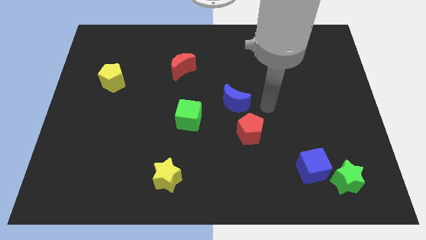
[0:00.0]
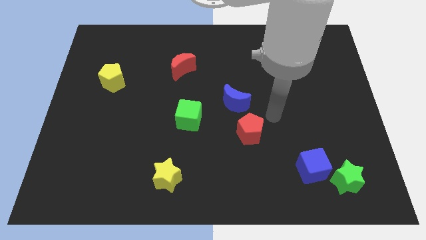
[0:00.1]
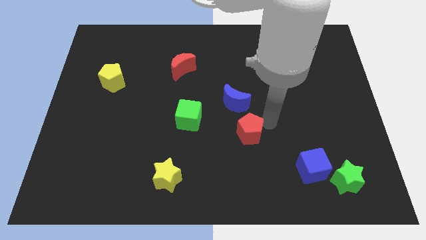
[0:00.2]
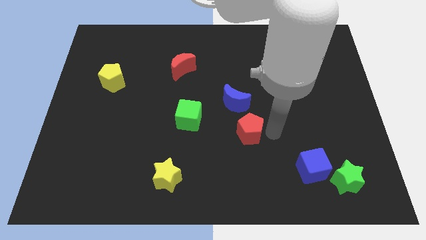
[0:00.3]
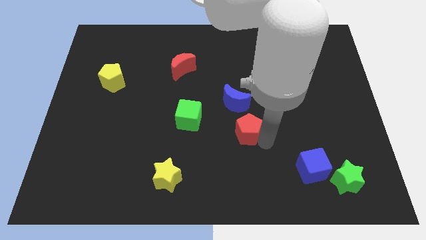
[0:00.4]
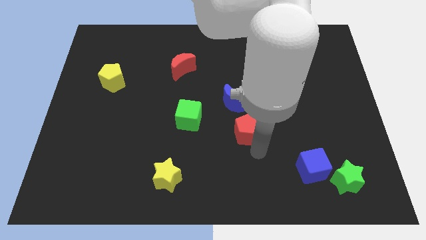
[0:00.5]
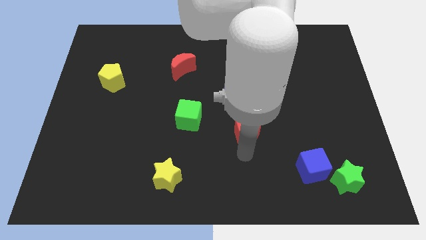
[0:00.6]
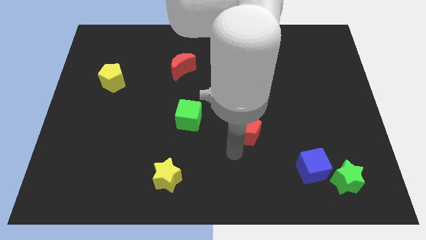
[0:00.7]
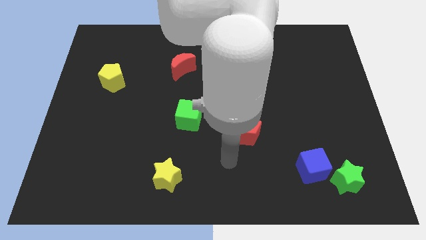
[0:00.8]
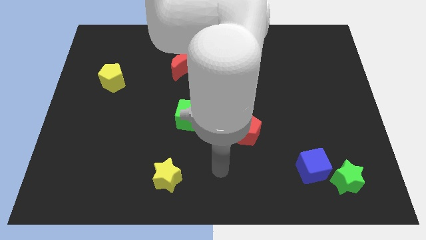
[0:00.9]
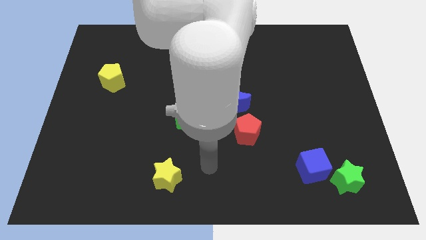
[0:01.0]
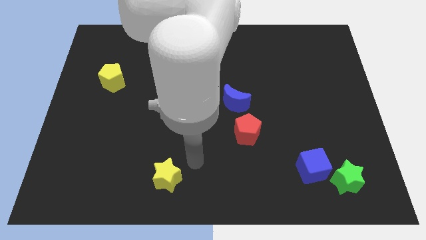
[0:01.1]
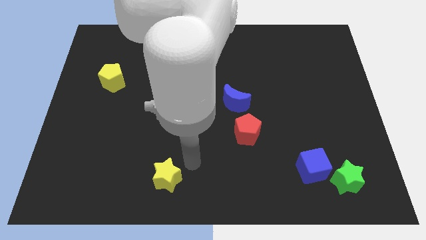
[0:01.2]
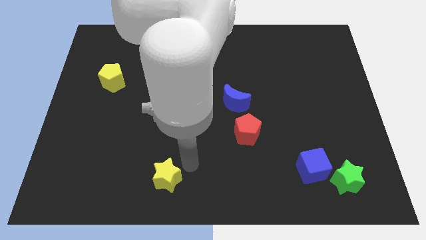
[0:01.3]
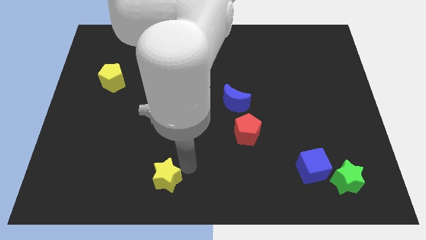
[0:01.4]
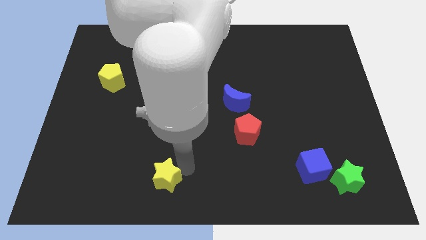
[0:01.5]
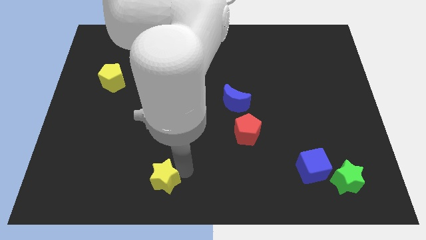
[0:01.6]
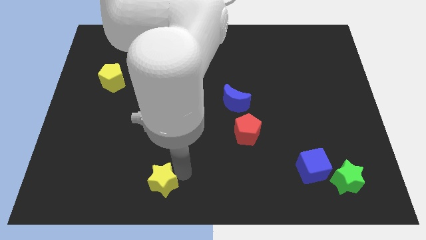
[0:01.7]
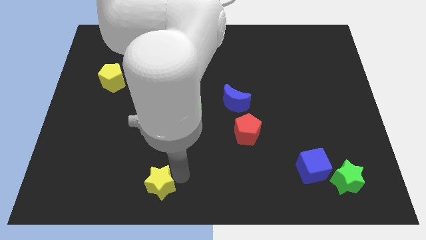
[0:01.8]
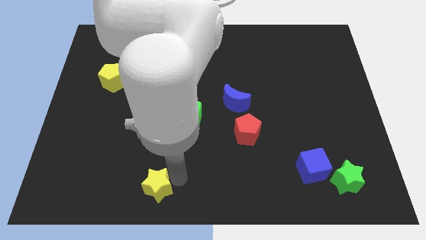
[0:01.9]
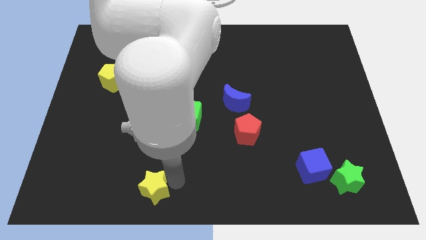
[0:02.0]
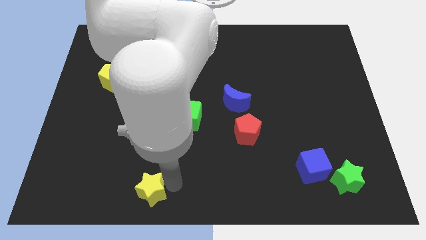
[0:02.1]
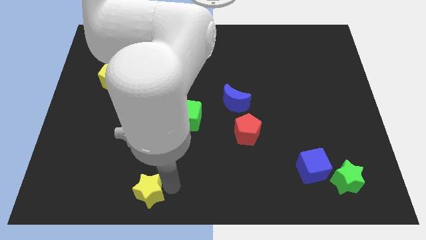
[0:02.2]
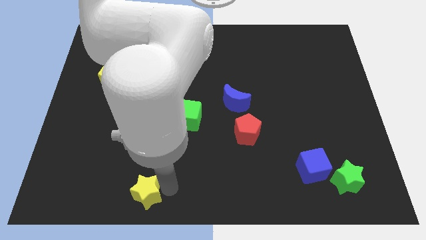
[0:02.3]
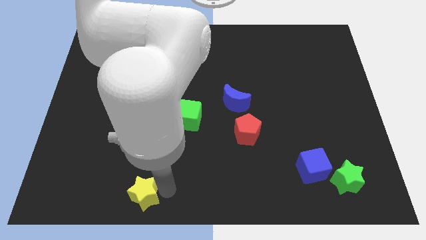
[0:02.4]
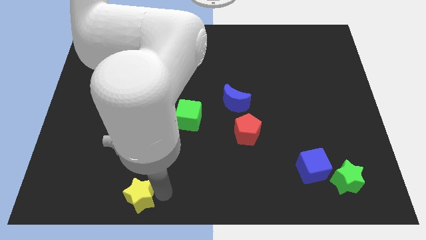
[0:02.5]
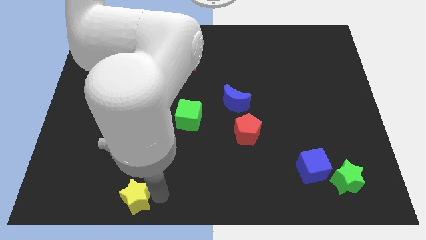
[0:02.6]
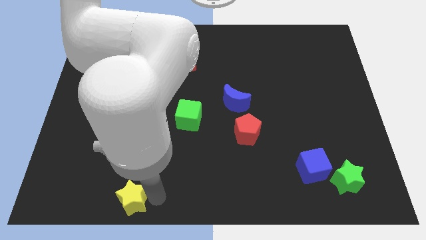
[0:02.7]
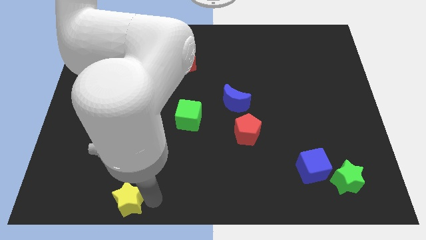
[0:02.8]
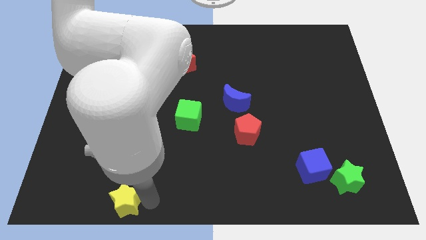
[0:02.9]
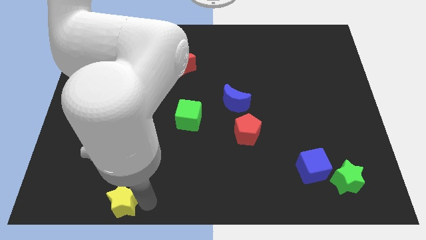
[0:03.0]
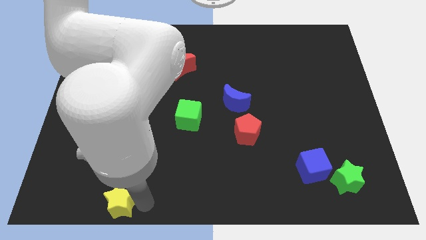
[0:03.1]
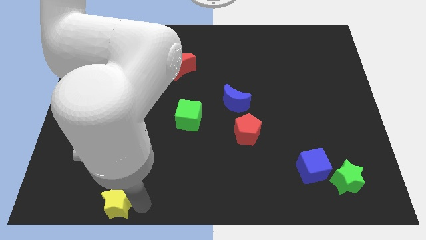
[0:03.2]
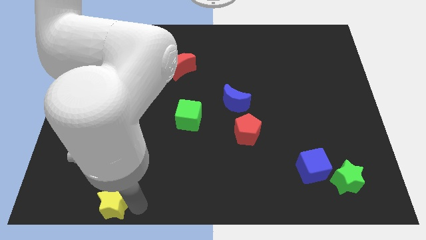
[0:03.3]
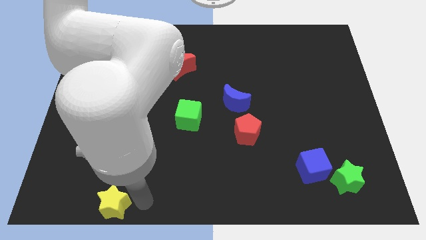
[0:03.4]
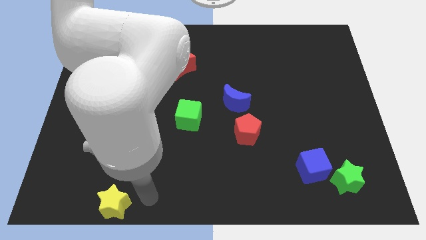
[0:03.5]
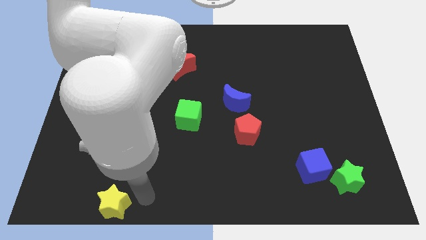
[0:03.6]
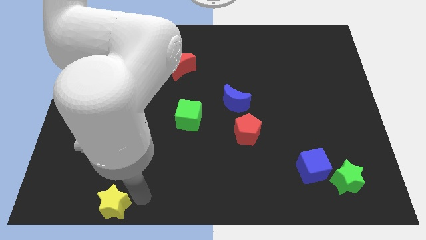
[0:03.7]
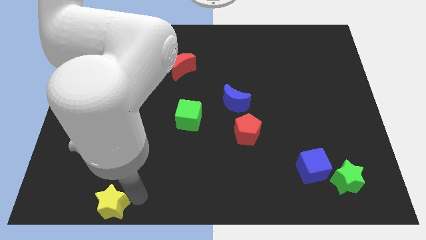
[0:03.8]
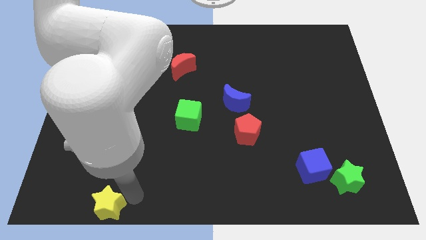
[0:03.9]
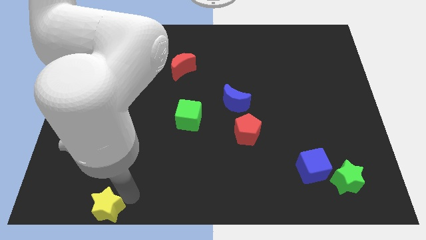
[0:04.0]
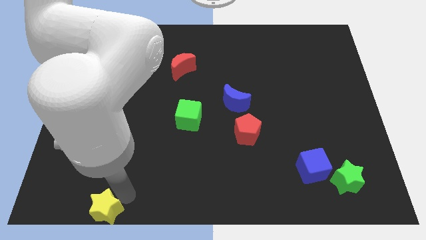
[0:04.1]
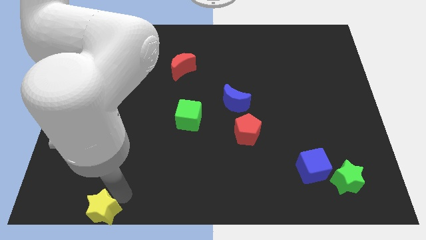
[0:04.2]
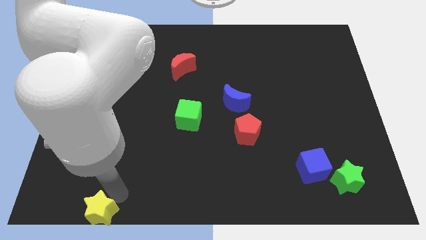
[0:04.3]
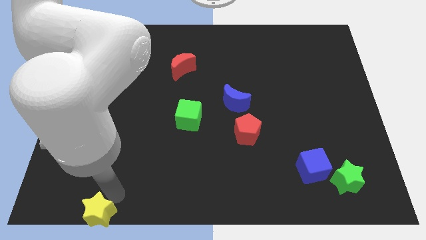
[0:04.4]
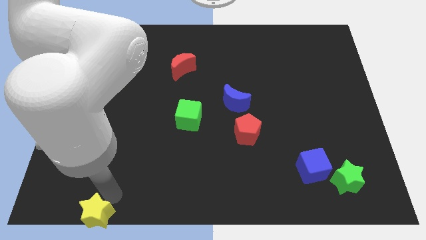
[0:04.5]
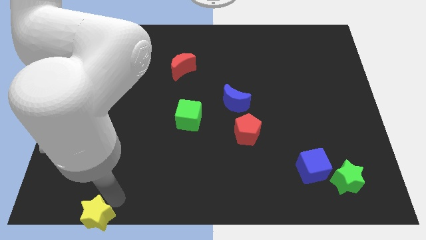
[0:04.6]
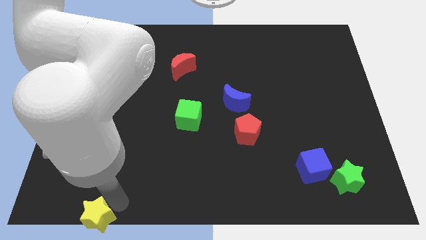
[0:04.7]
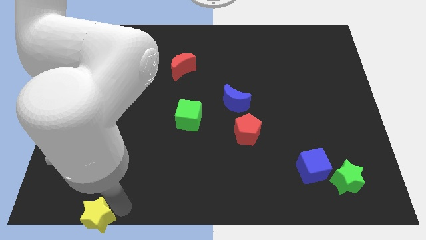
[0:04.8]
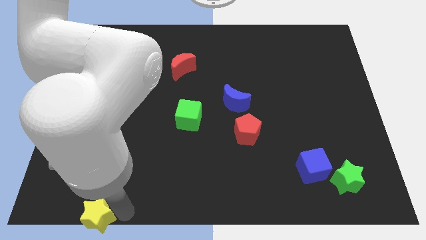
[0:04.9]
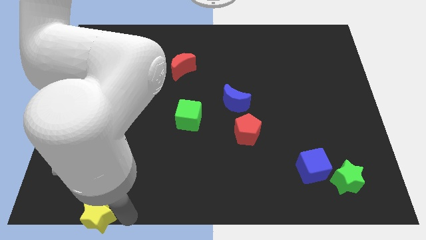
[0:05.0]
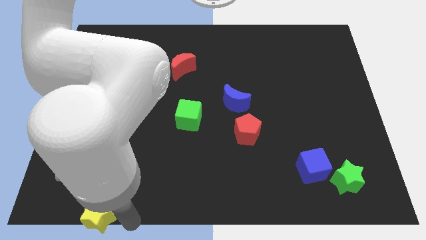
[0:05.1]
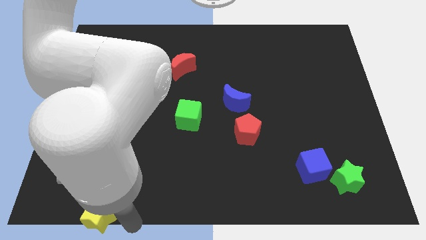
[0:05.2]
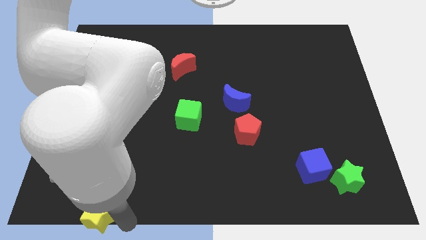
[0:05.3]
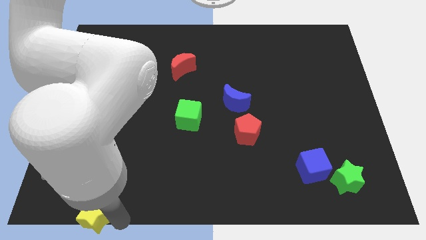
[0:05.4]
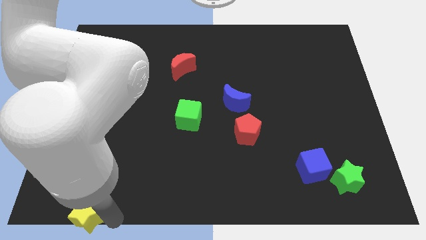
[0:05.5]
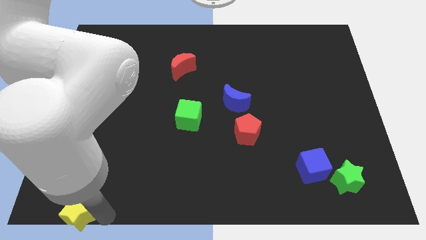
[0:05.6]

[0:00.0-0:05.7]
push the yellow star to the bottom left of the board

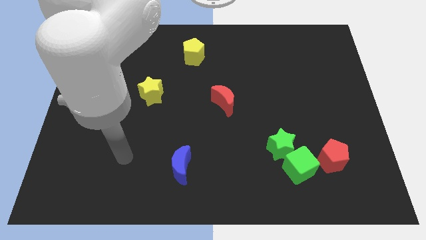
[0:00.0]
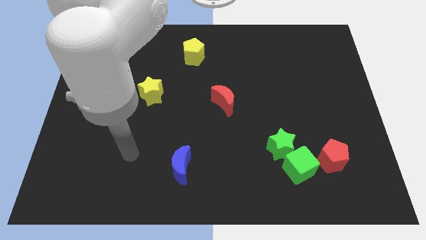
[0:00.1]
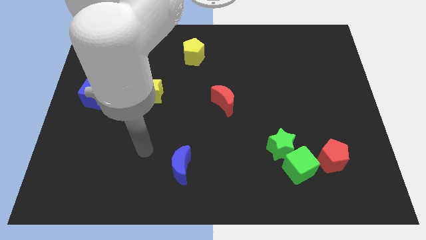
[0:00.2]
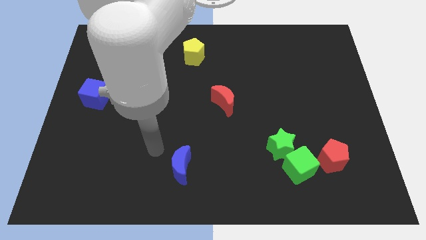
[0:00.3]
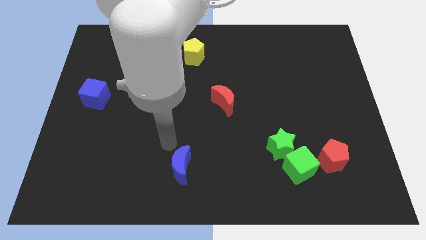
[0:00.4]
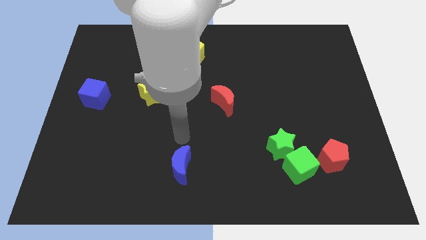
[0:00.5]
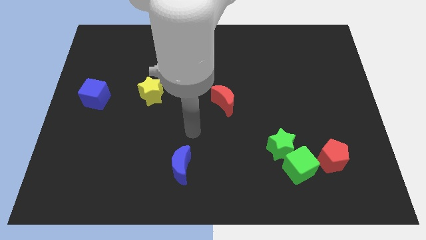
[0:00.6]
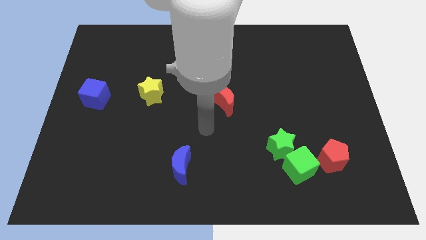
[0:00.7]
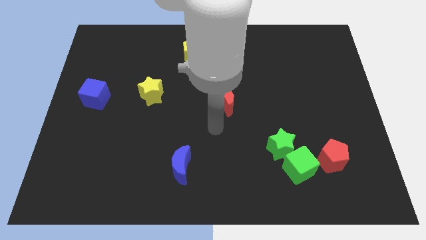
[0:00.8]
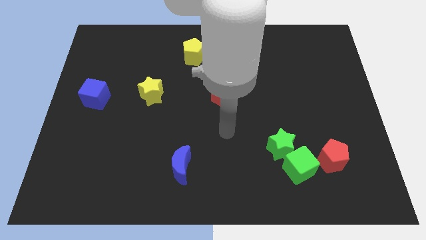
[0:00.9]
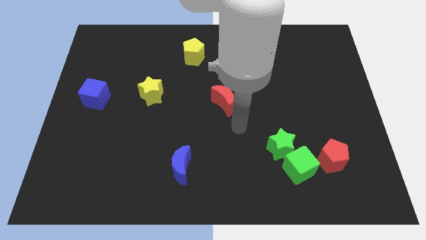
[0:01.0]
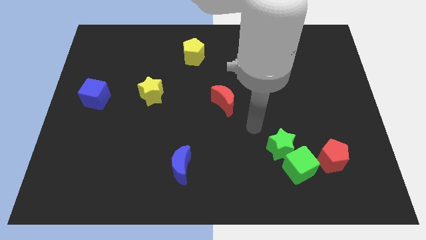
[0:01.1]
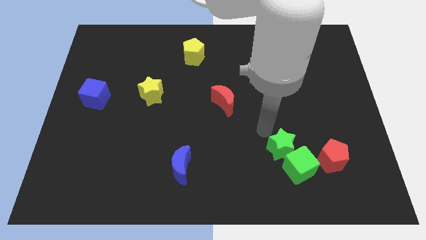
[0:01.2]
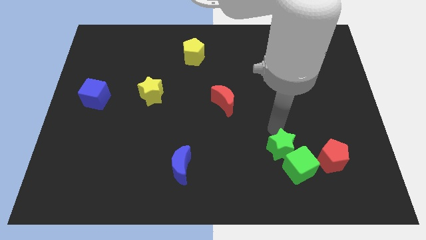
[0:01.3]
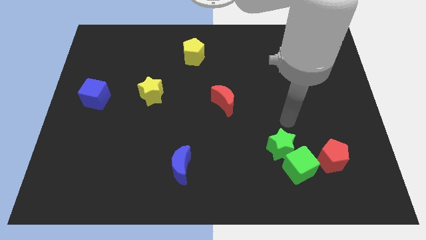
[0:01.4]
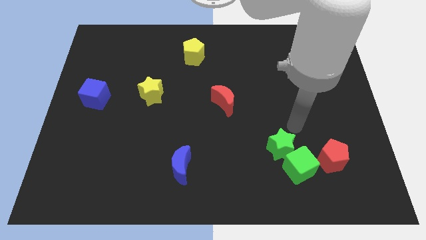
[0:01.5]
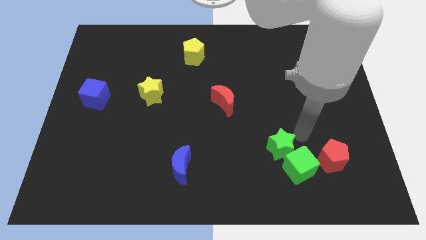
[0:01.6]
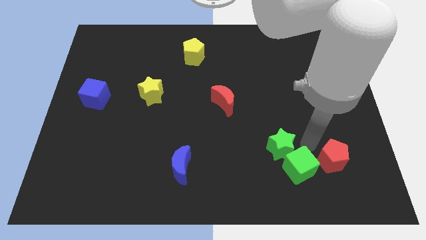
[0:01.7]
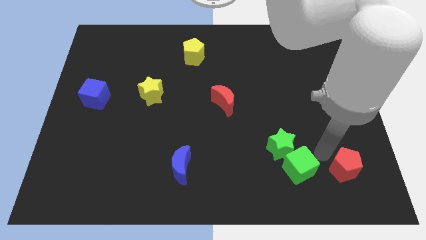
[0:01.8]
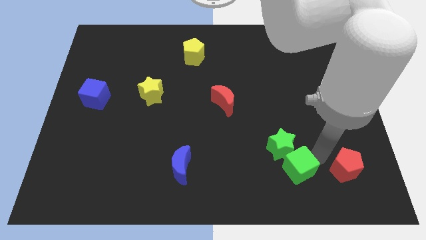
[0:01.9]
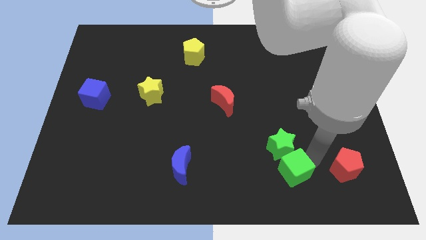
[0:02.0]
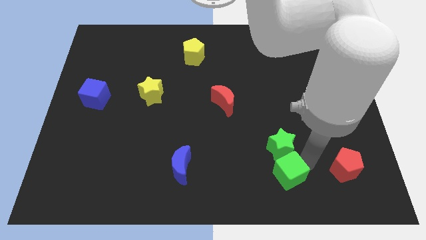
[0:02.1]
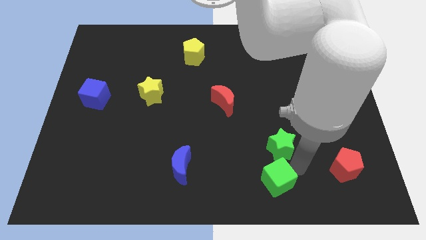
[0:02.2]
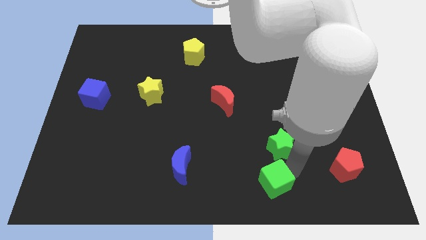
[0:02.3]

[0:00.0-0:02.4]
slide the green cube to the bottom side
